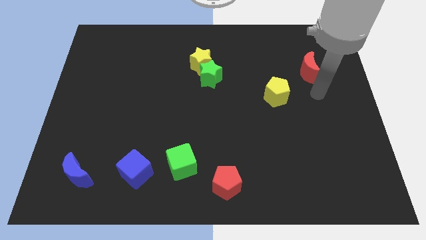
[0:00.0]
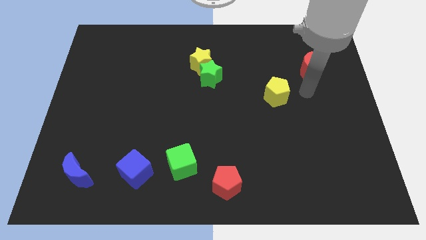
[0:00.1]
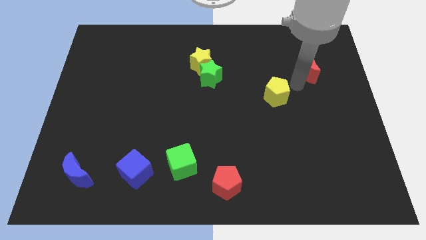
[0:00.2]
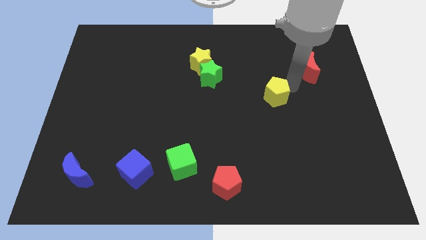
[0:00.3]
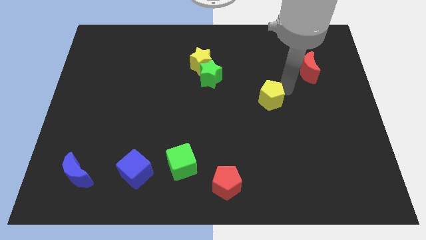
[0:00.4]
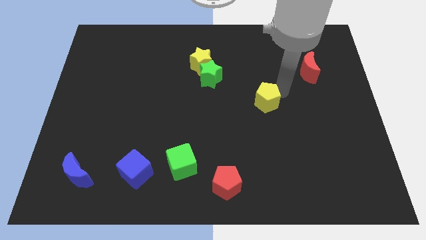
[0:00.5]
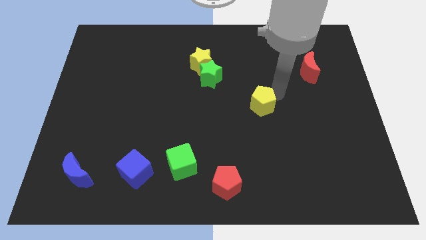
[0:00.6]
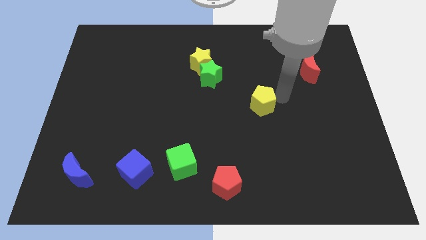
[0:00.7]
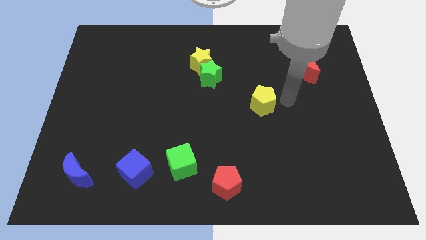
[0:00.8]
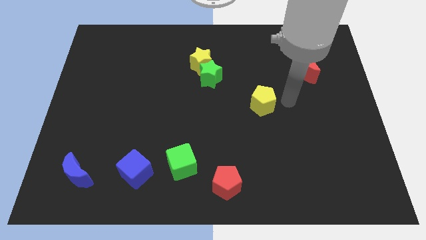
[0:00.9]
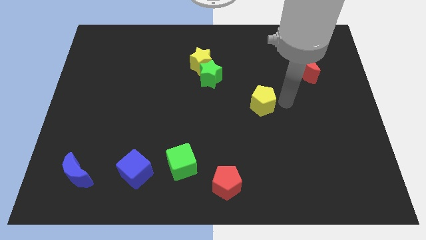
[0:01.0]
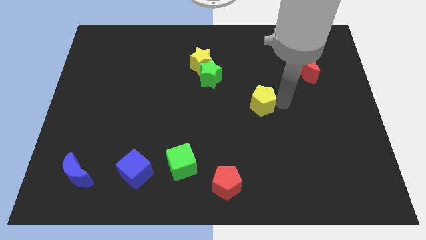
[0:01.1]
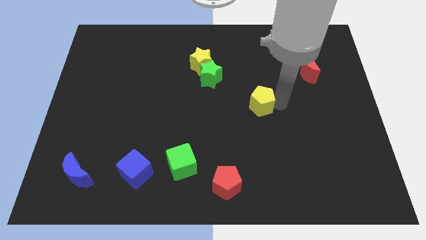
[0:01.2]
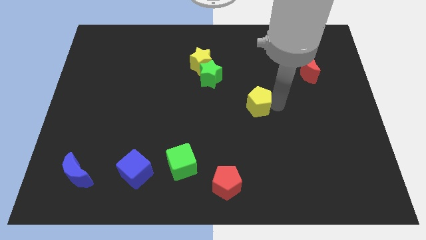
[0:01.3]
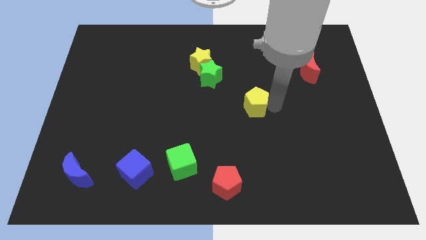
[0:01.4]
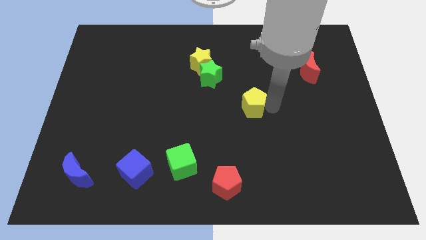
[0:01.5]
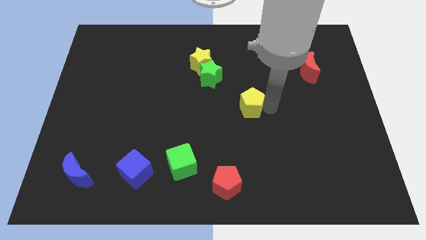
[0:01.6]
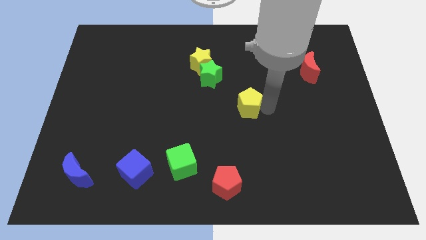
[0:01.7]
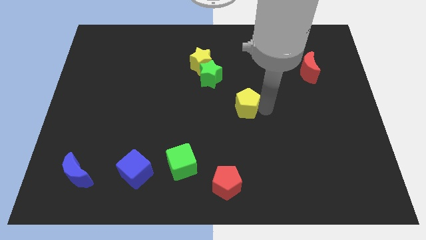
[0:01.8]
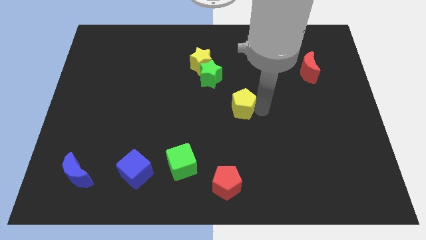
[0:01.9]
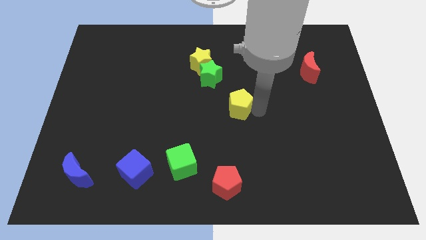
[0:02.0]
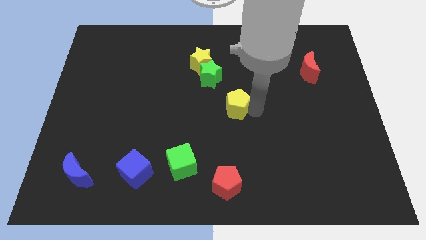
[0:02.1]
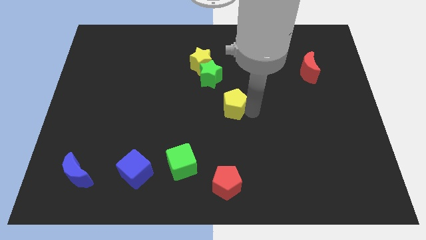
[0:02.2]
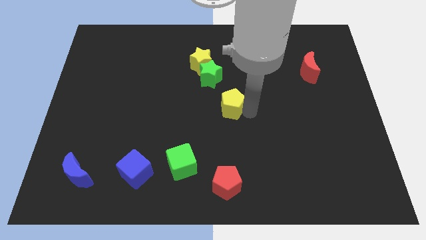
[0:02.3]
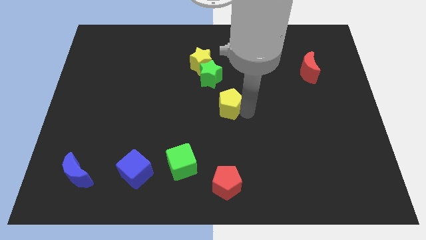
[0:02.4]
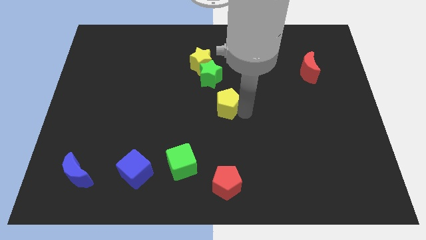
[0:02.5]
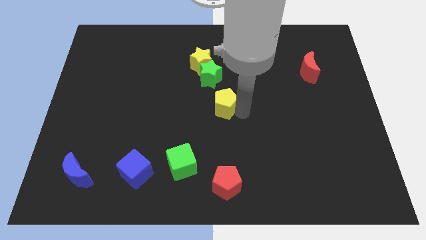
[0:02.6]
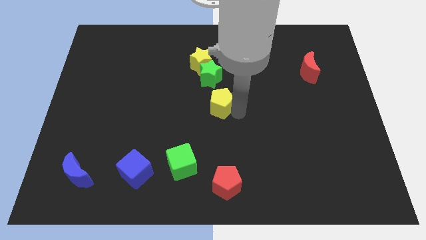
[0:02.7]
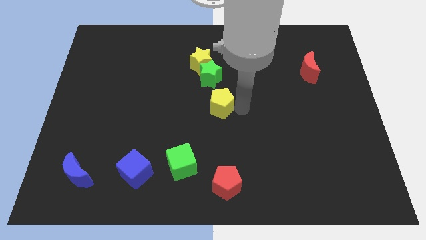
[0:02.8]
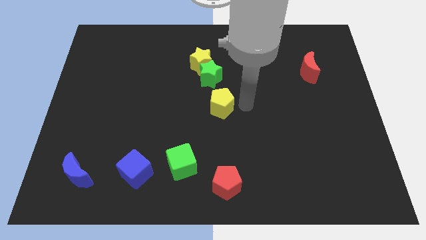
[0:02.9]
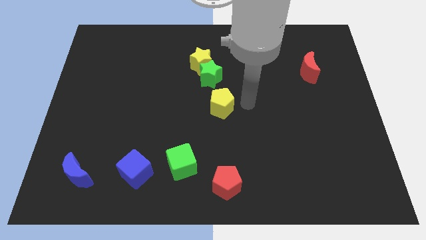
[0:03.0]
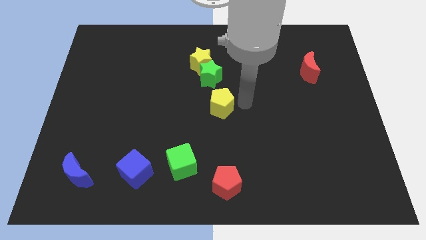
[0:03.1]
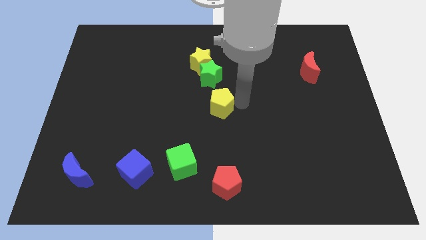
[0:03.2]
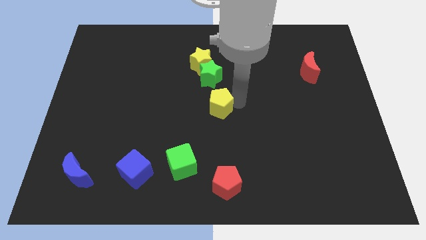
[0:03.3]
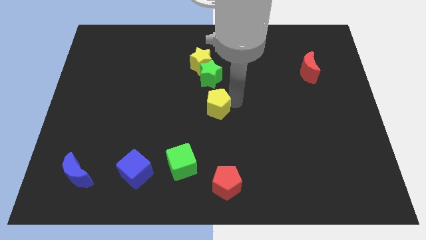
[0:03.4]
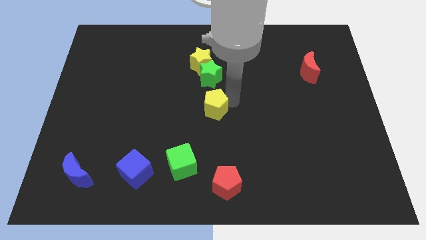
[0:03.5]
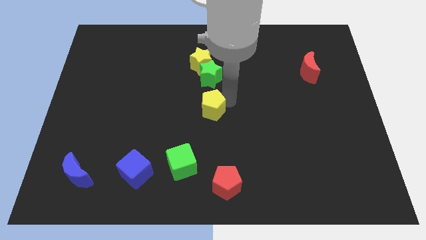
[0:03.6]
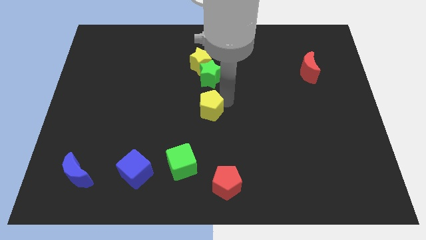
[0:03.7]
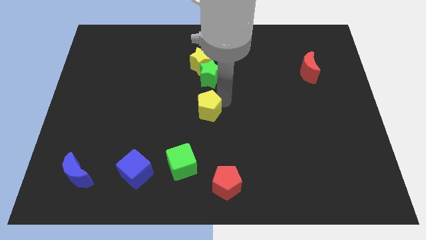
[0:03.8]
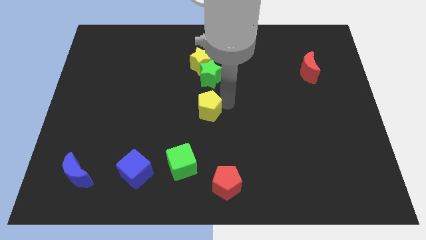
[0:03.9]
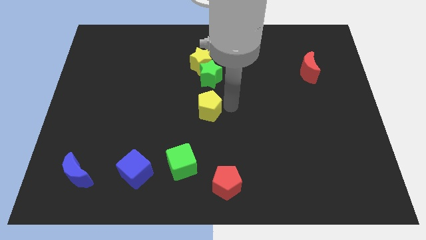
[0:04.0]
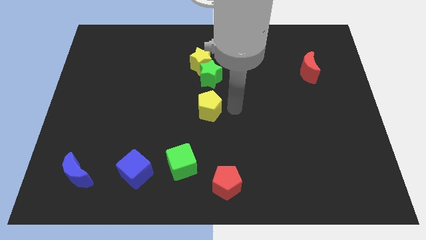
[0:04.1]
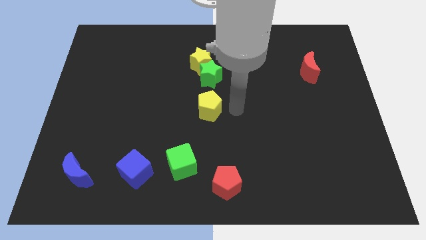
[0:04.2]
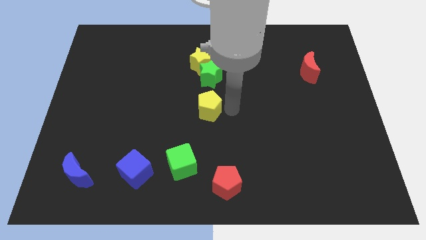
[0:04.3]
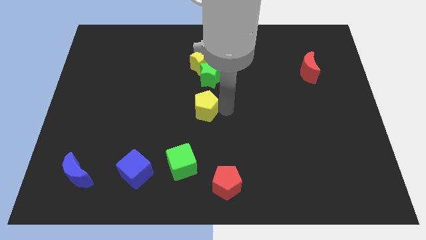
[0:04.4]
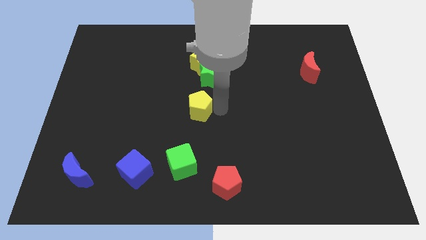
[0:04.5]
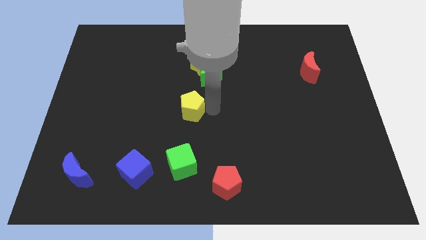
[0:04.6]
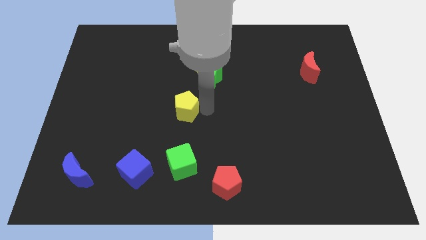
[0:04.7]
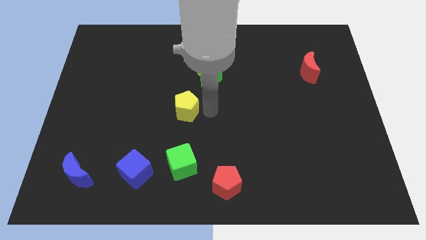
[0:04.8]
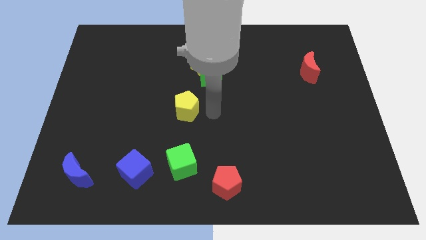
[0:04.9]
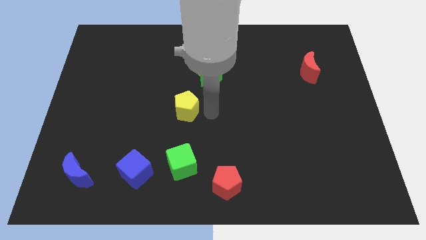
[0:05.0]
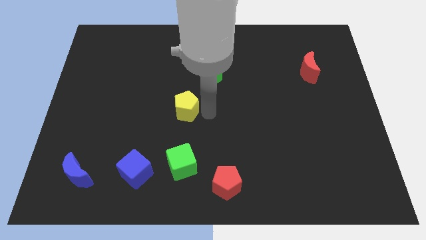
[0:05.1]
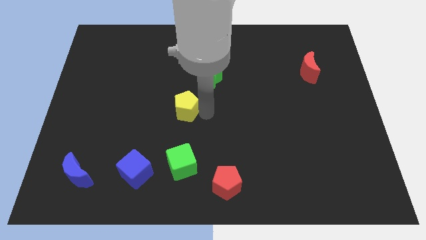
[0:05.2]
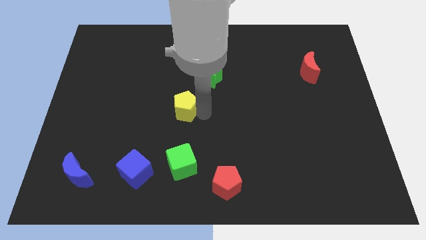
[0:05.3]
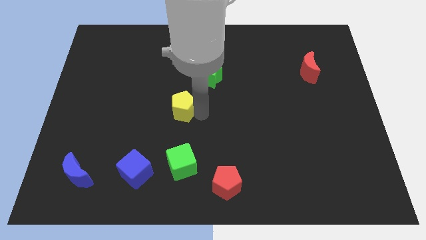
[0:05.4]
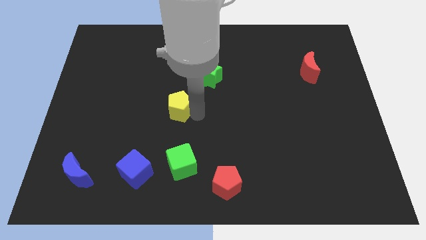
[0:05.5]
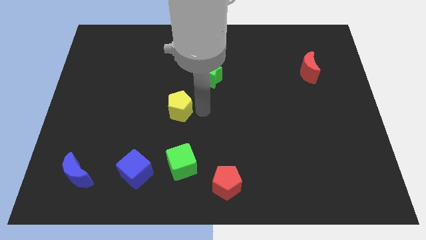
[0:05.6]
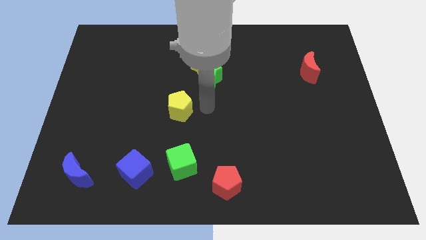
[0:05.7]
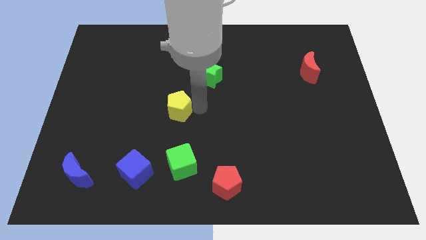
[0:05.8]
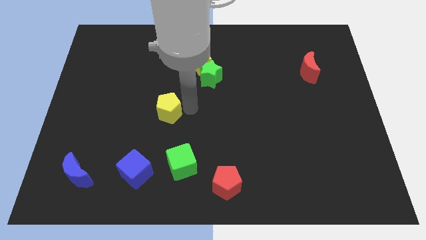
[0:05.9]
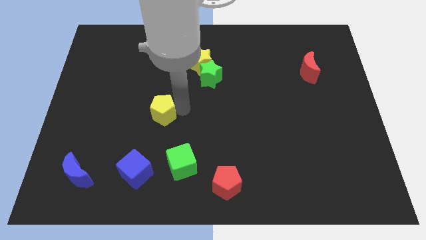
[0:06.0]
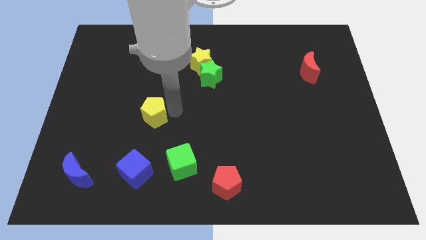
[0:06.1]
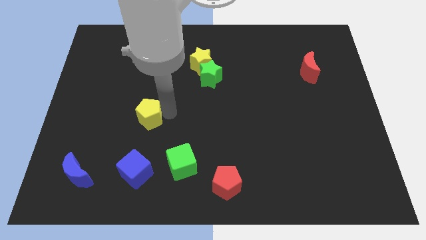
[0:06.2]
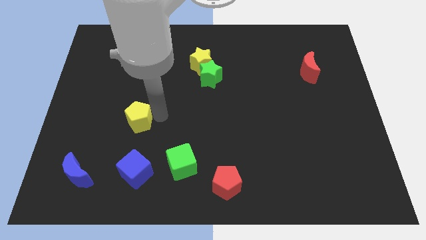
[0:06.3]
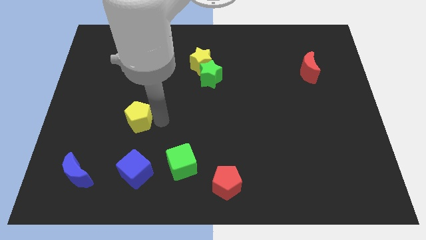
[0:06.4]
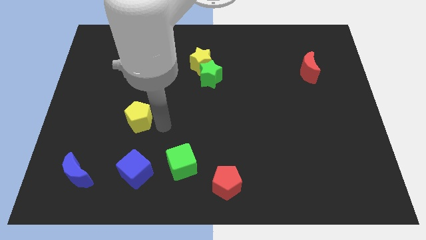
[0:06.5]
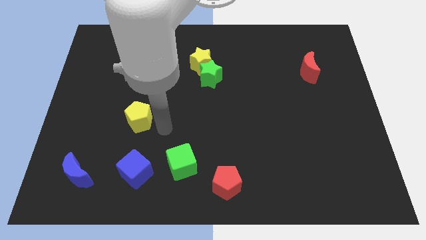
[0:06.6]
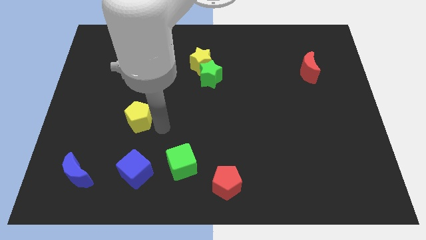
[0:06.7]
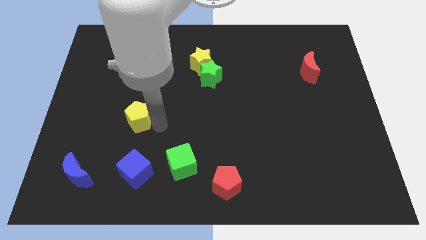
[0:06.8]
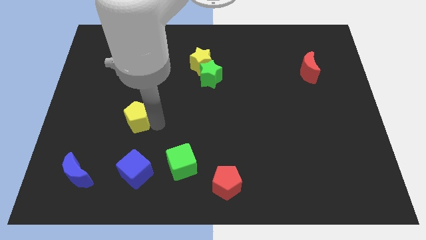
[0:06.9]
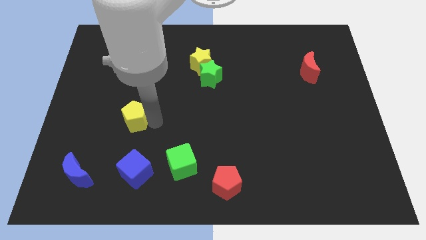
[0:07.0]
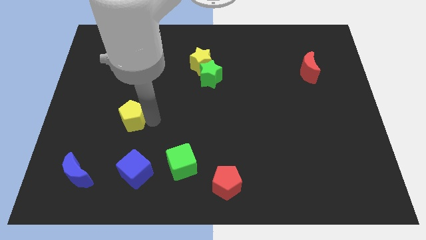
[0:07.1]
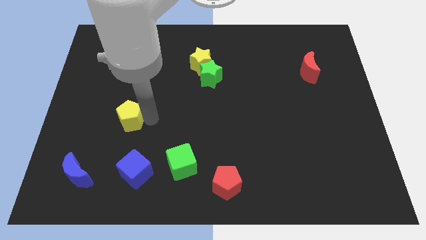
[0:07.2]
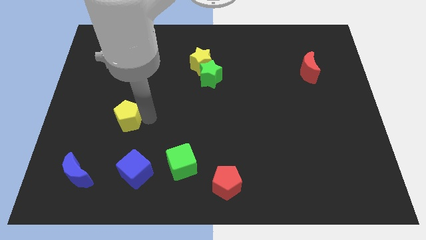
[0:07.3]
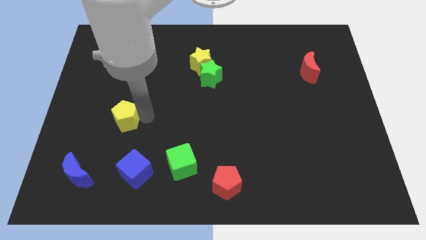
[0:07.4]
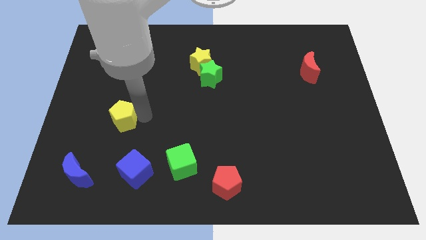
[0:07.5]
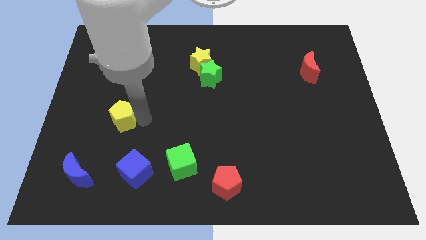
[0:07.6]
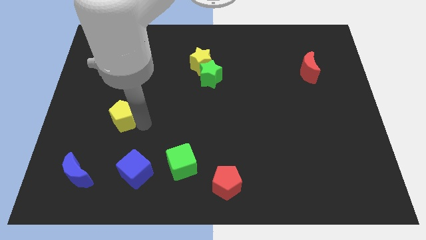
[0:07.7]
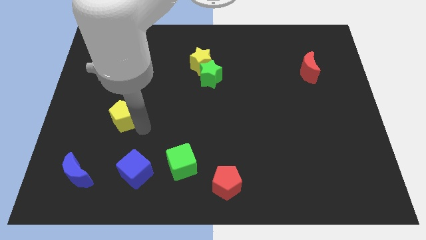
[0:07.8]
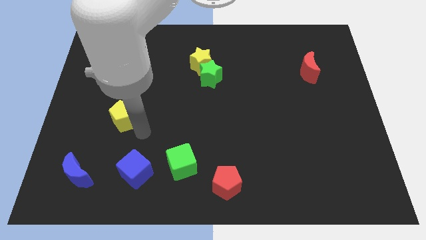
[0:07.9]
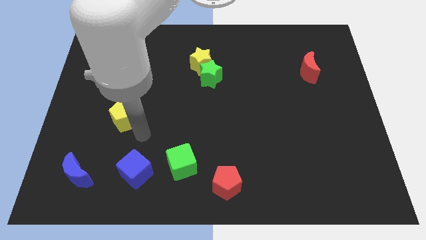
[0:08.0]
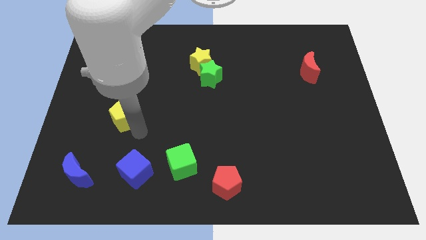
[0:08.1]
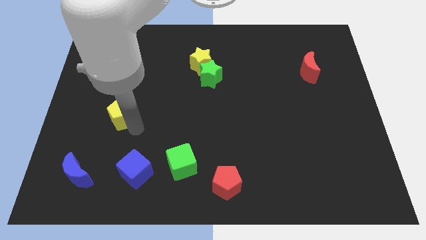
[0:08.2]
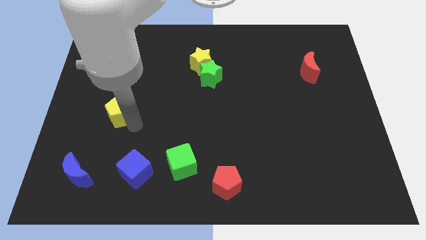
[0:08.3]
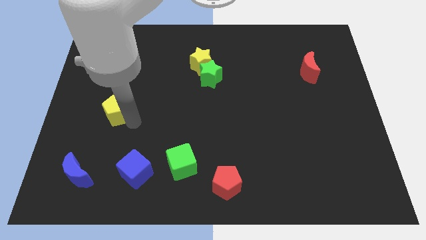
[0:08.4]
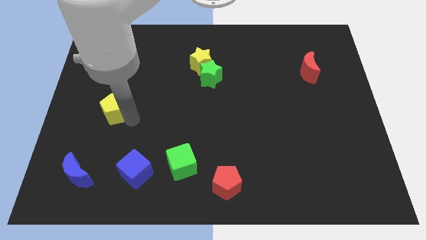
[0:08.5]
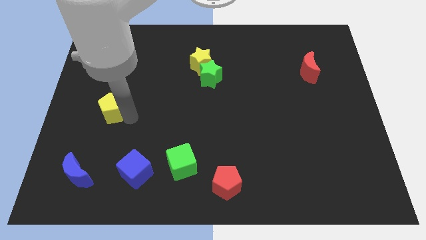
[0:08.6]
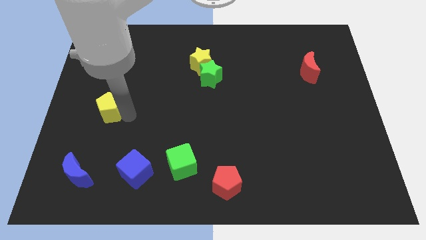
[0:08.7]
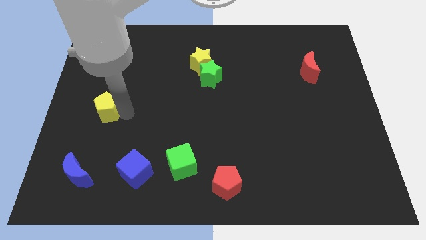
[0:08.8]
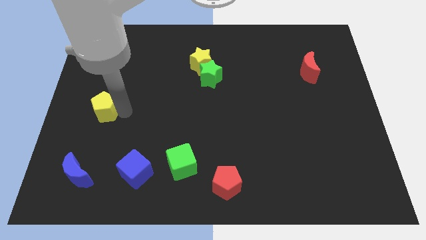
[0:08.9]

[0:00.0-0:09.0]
move the yellow pentagon to the left side of the board
